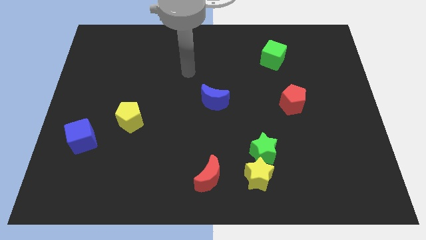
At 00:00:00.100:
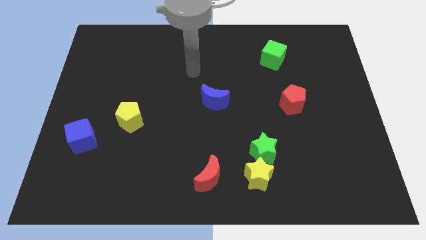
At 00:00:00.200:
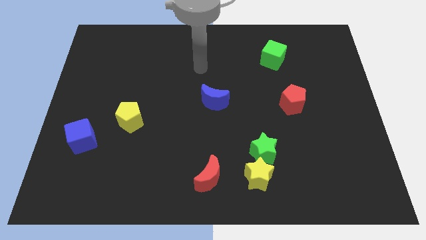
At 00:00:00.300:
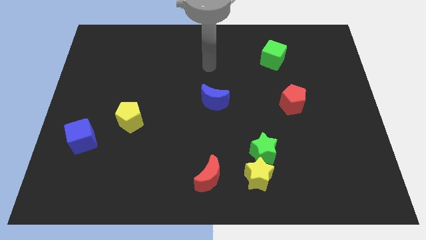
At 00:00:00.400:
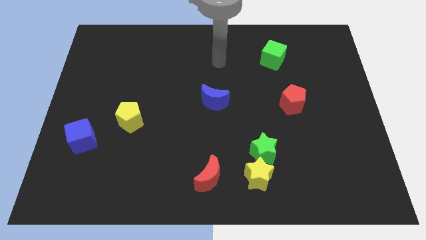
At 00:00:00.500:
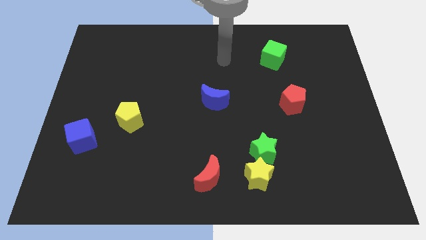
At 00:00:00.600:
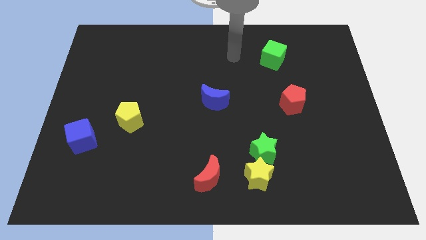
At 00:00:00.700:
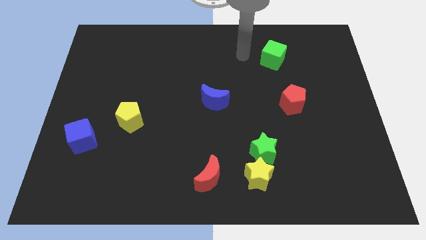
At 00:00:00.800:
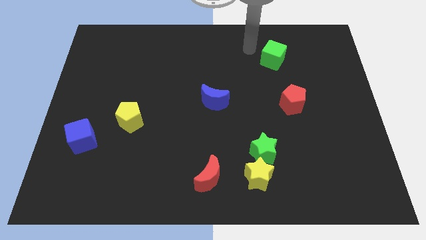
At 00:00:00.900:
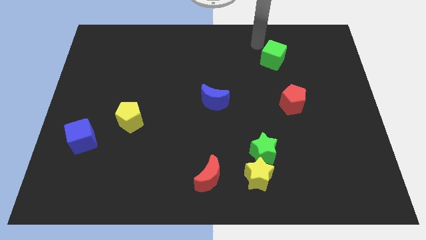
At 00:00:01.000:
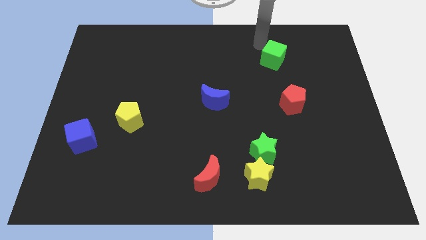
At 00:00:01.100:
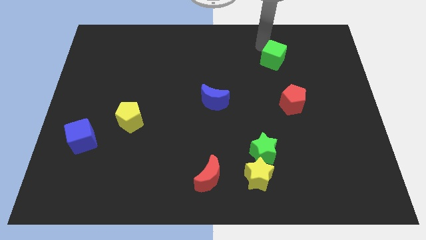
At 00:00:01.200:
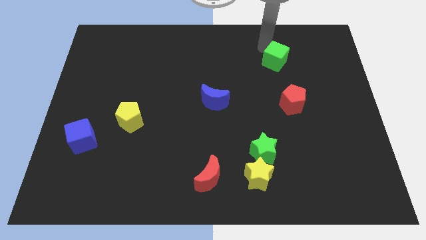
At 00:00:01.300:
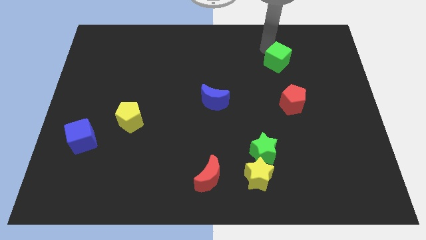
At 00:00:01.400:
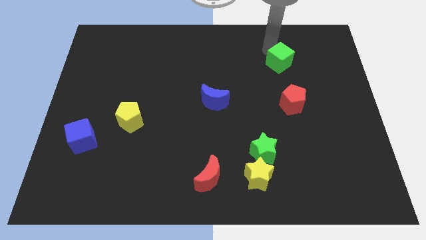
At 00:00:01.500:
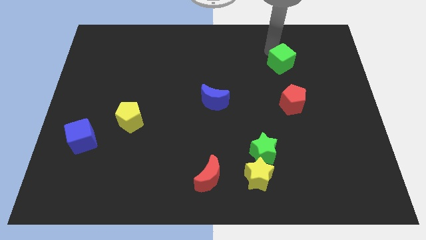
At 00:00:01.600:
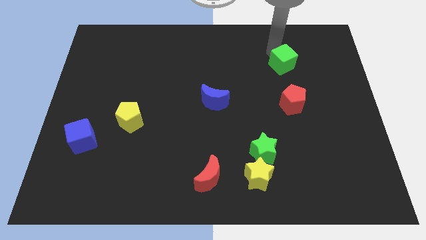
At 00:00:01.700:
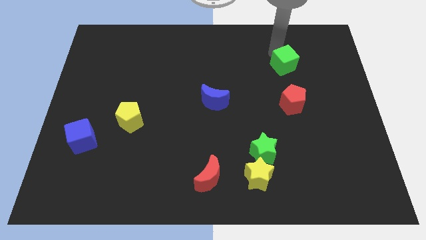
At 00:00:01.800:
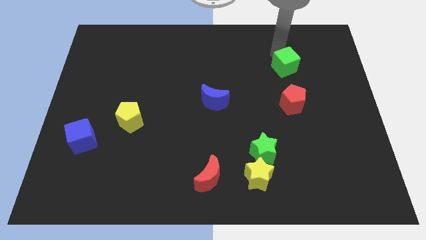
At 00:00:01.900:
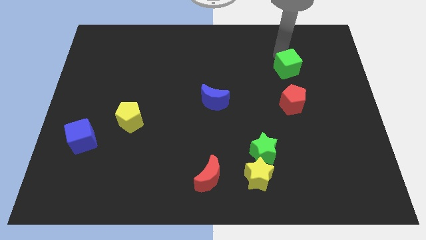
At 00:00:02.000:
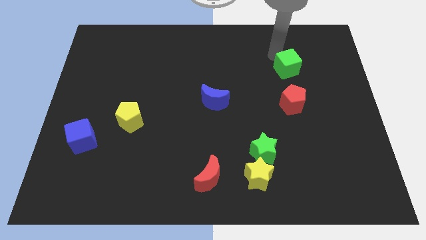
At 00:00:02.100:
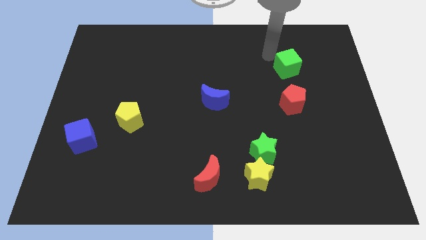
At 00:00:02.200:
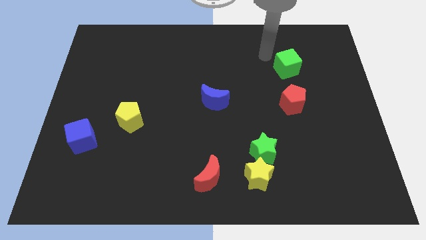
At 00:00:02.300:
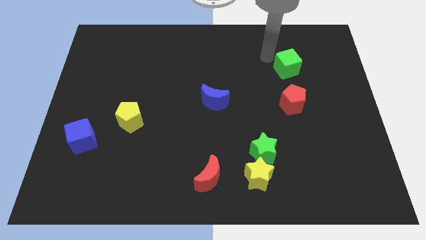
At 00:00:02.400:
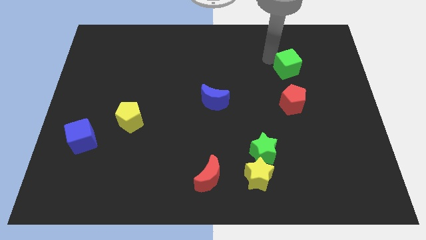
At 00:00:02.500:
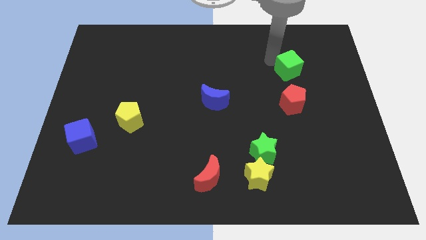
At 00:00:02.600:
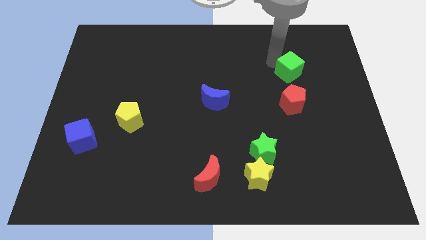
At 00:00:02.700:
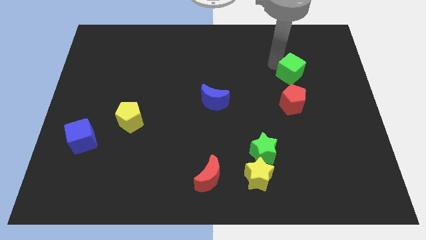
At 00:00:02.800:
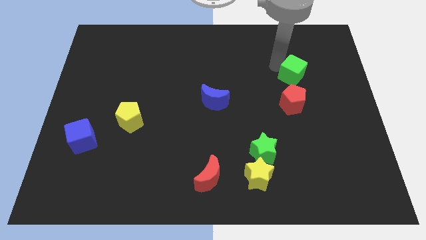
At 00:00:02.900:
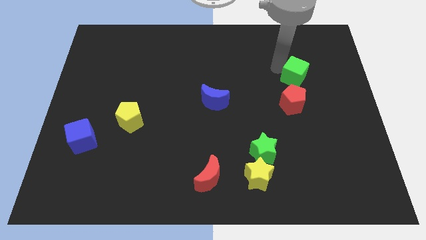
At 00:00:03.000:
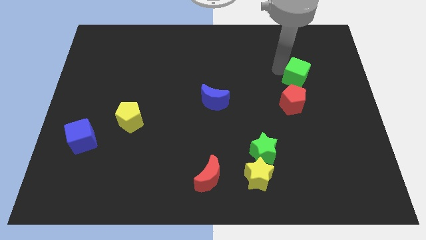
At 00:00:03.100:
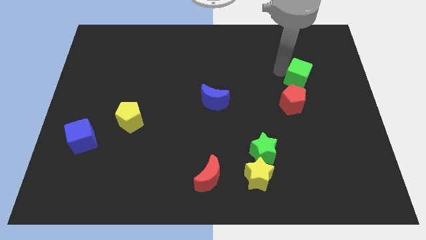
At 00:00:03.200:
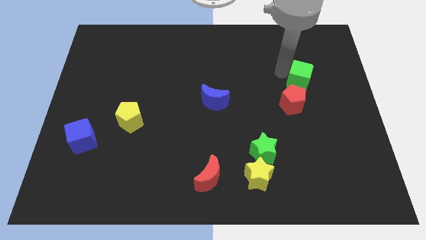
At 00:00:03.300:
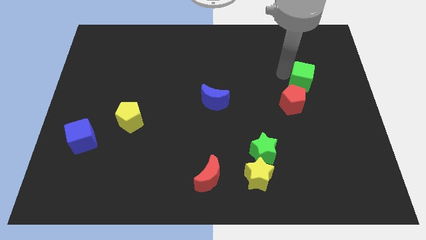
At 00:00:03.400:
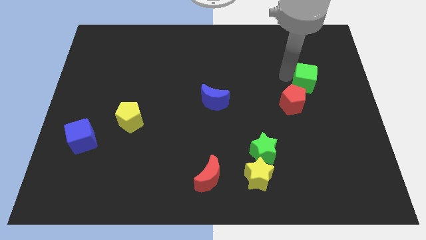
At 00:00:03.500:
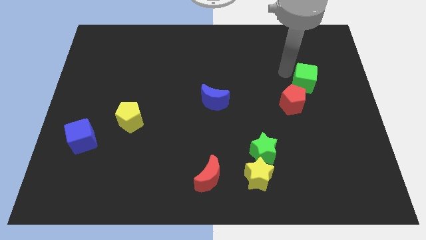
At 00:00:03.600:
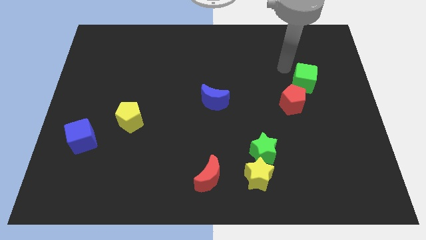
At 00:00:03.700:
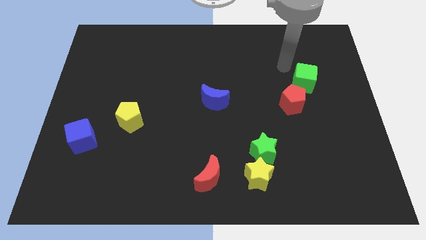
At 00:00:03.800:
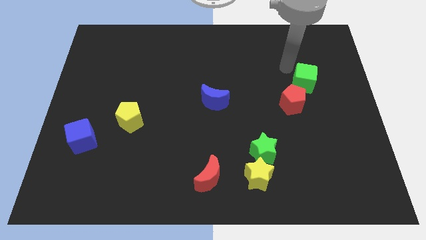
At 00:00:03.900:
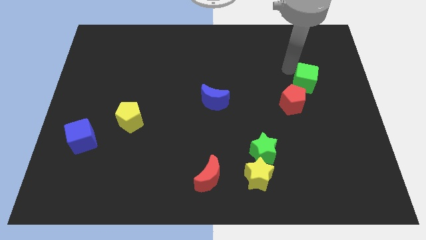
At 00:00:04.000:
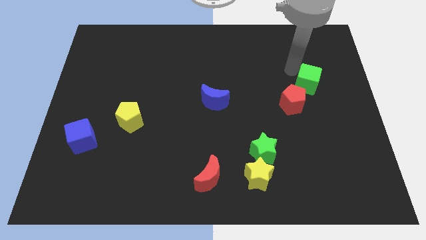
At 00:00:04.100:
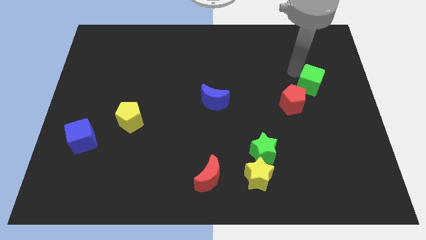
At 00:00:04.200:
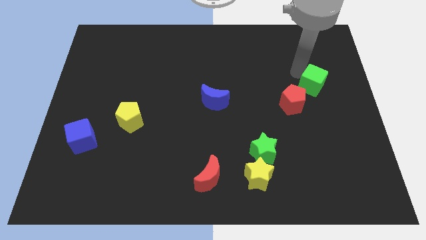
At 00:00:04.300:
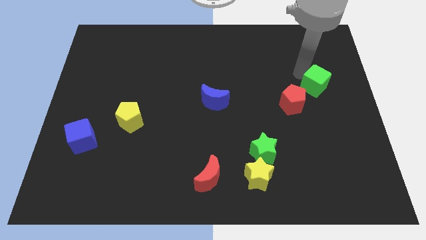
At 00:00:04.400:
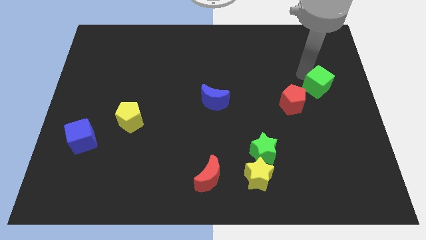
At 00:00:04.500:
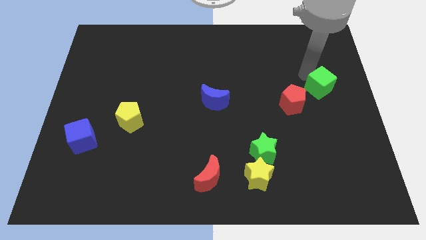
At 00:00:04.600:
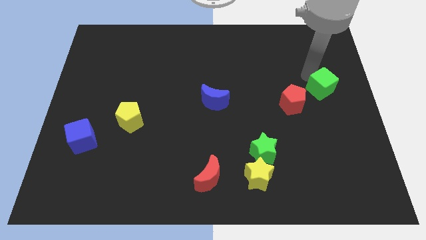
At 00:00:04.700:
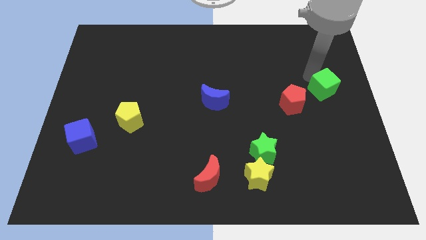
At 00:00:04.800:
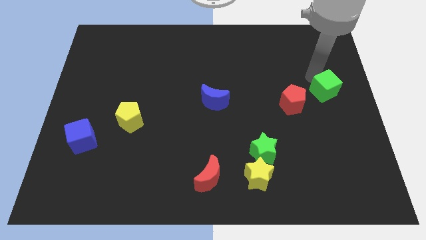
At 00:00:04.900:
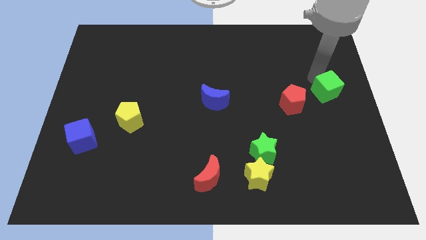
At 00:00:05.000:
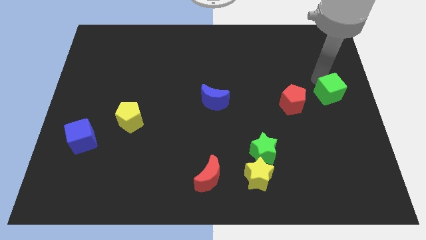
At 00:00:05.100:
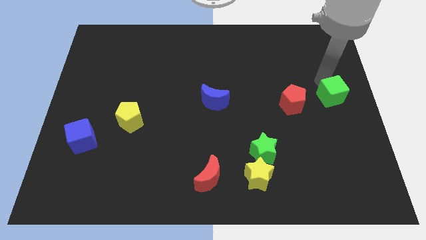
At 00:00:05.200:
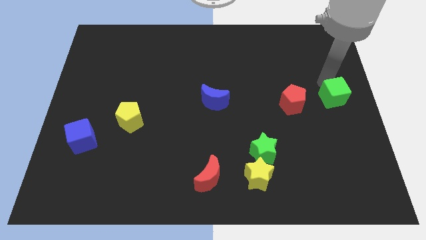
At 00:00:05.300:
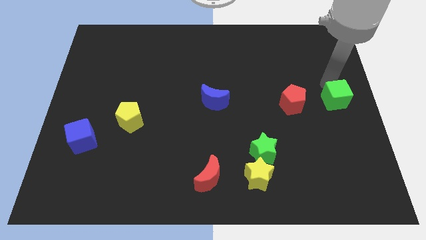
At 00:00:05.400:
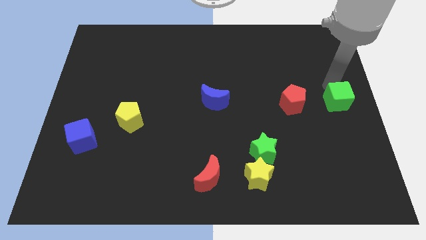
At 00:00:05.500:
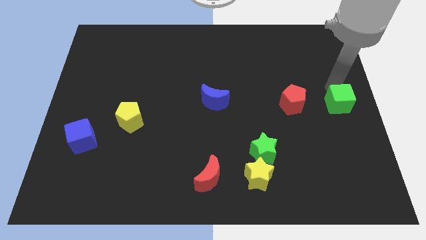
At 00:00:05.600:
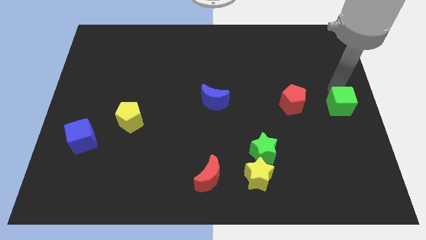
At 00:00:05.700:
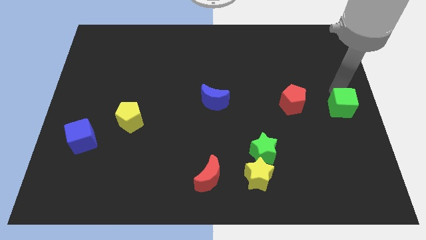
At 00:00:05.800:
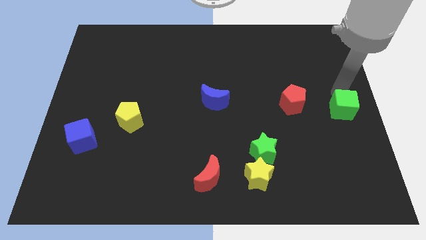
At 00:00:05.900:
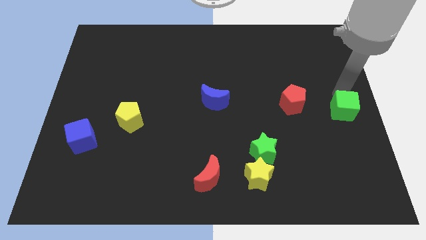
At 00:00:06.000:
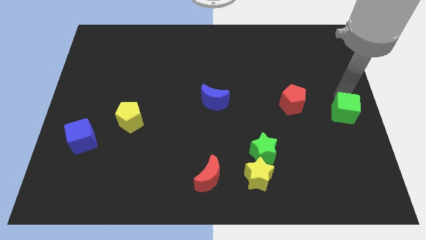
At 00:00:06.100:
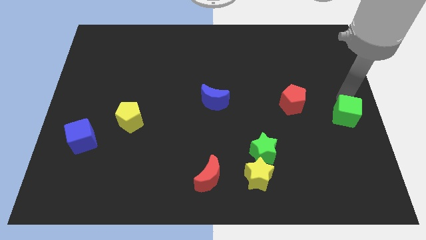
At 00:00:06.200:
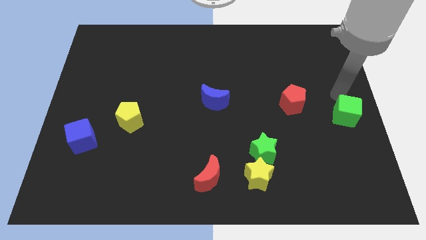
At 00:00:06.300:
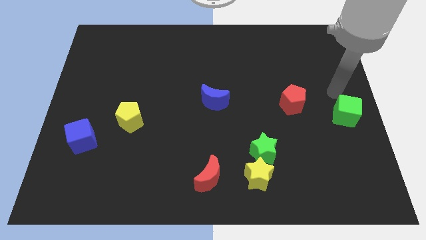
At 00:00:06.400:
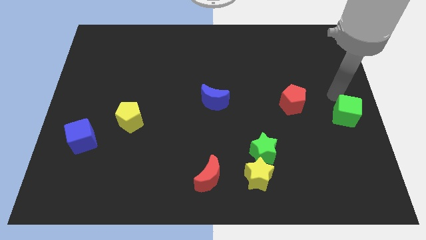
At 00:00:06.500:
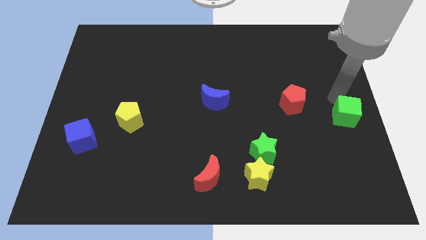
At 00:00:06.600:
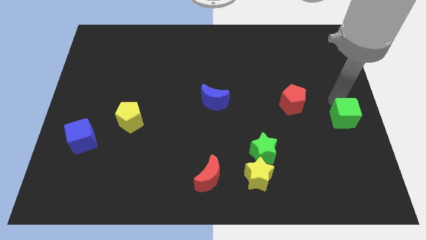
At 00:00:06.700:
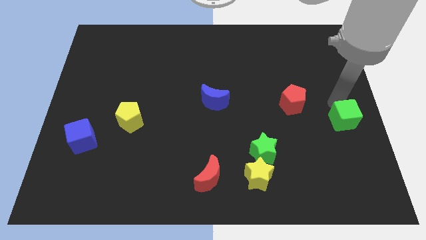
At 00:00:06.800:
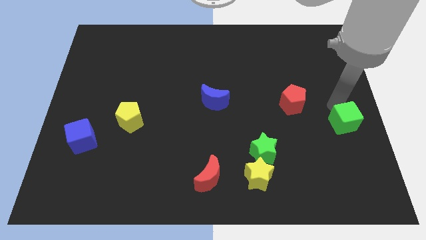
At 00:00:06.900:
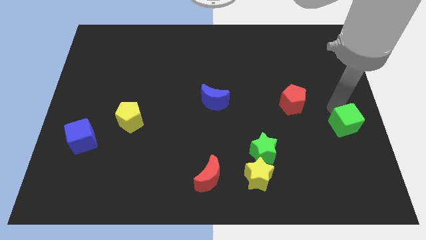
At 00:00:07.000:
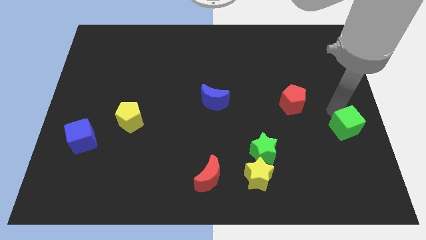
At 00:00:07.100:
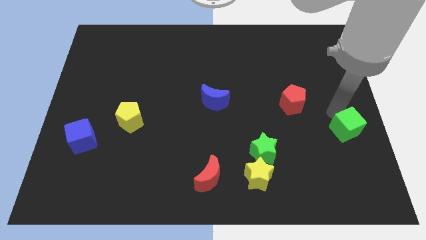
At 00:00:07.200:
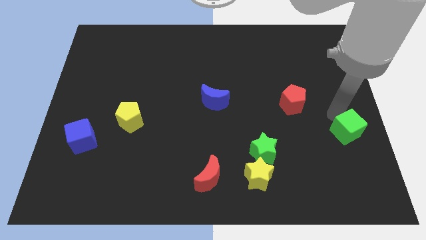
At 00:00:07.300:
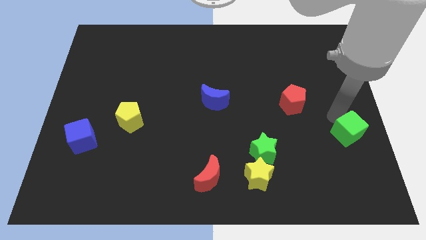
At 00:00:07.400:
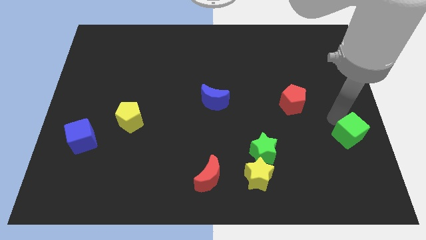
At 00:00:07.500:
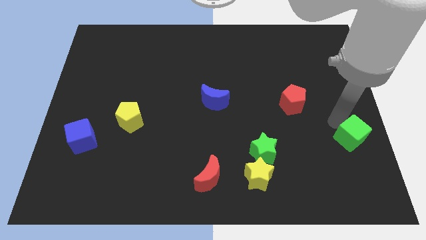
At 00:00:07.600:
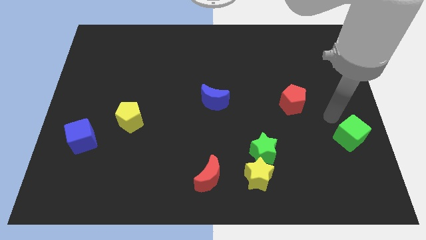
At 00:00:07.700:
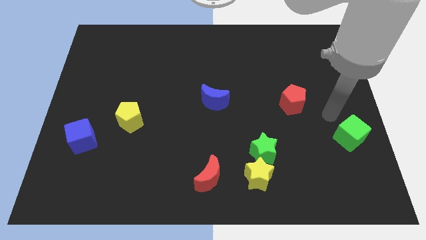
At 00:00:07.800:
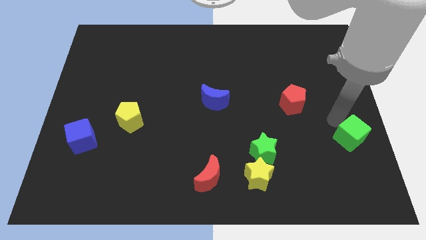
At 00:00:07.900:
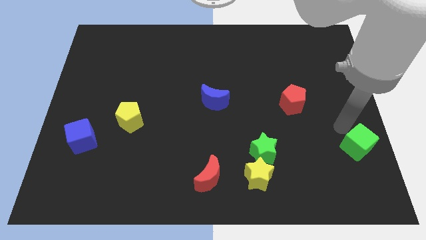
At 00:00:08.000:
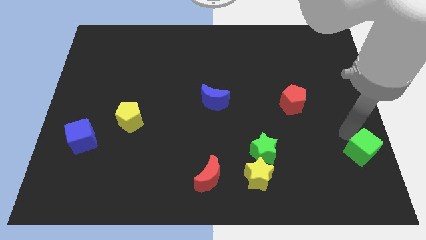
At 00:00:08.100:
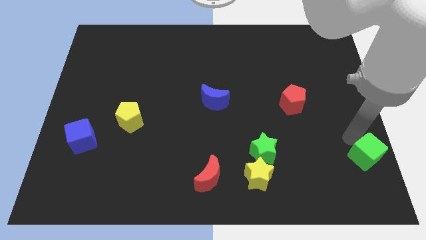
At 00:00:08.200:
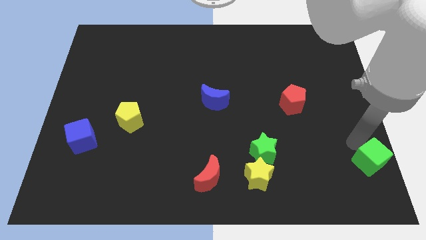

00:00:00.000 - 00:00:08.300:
put the green cube to the bottom right corner
